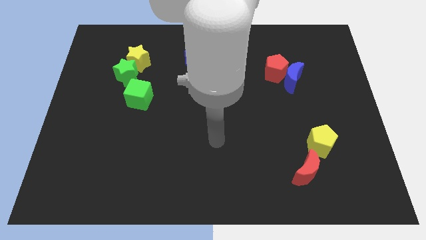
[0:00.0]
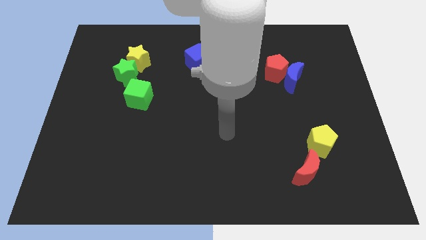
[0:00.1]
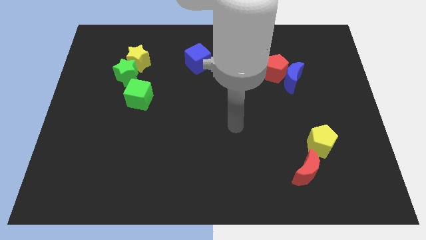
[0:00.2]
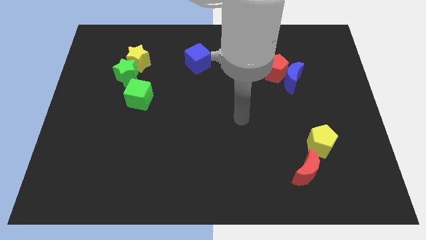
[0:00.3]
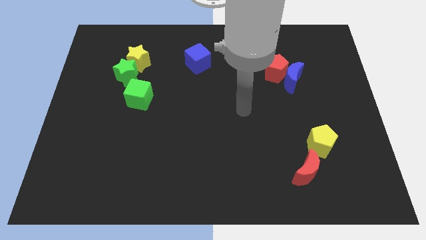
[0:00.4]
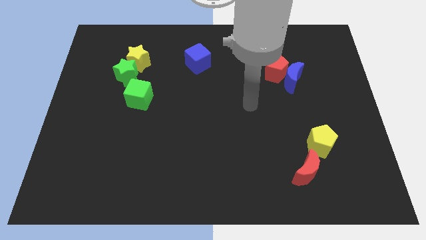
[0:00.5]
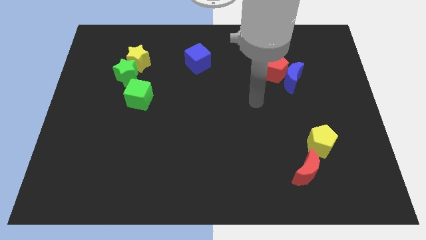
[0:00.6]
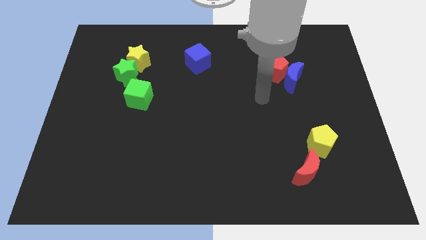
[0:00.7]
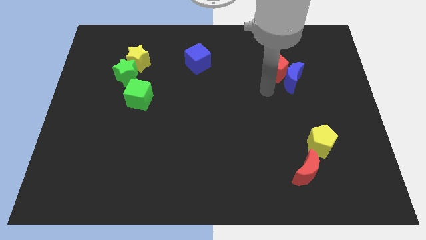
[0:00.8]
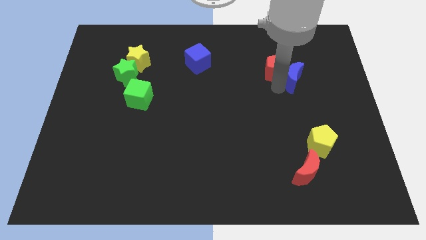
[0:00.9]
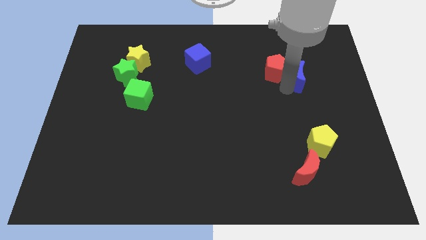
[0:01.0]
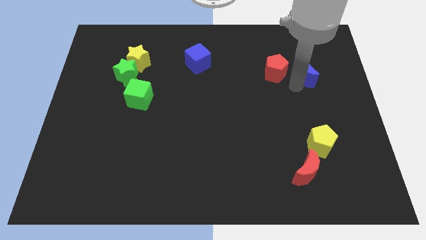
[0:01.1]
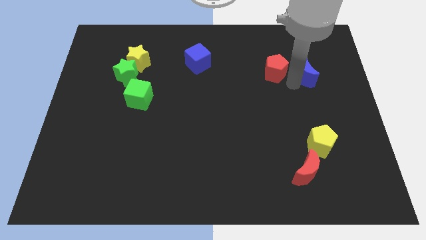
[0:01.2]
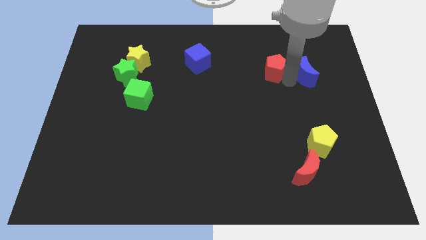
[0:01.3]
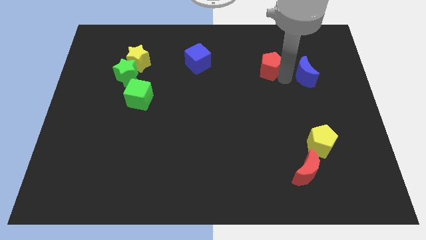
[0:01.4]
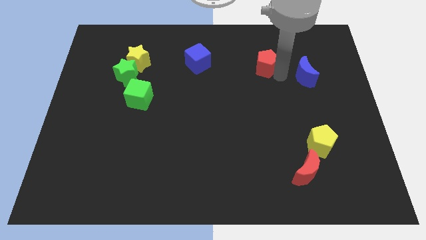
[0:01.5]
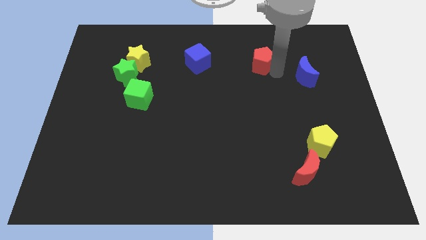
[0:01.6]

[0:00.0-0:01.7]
separate the red pentagon from the blue moon

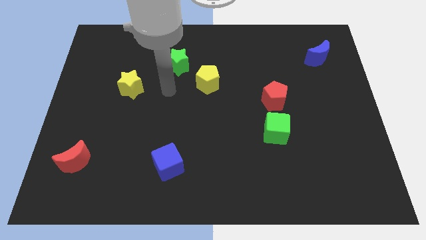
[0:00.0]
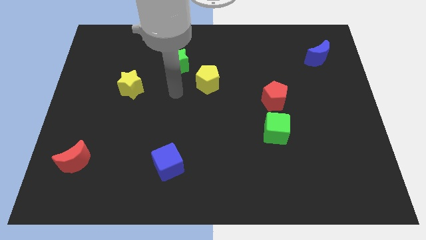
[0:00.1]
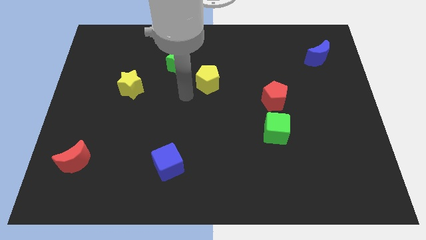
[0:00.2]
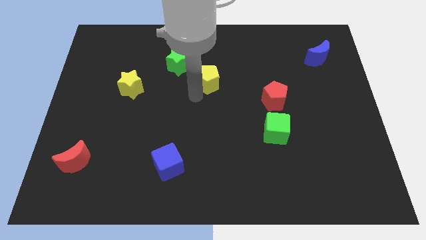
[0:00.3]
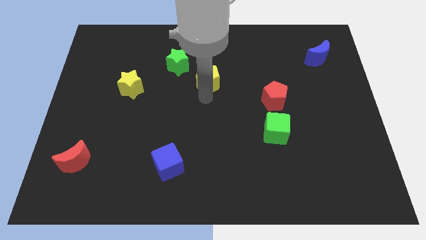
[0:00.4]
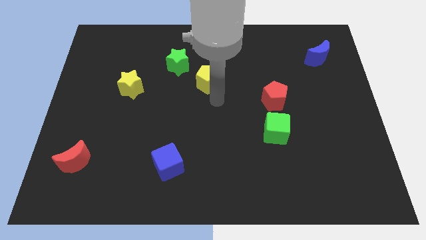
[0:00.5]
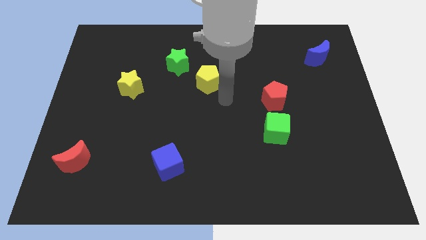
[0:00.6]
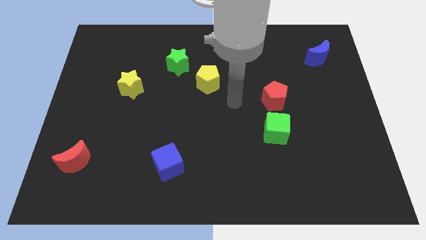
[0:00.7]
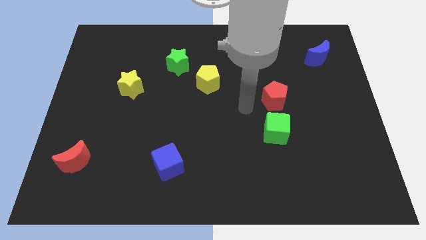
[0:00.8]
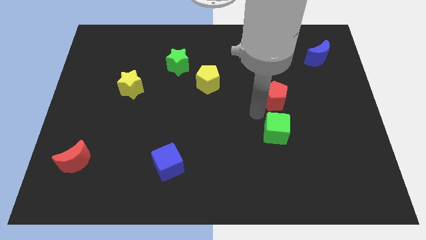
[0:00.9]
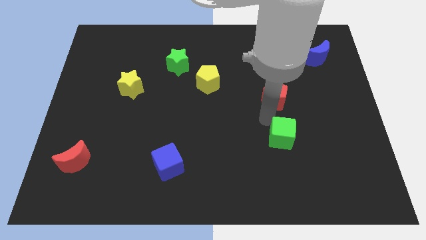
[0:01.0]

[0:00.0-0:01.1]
separate the red pentagon from the green cube

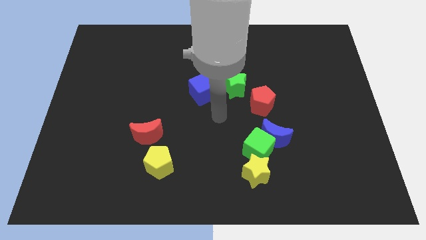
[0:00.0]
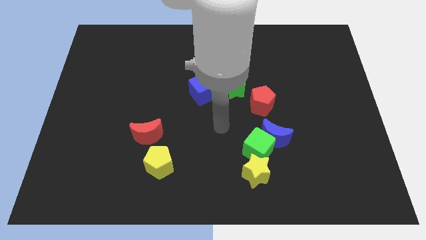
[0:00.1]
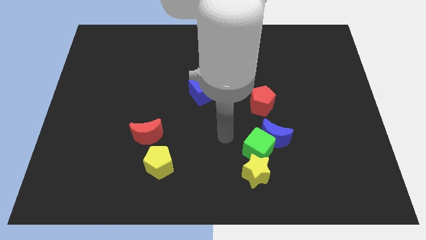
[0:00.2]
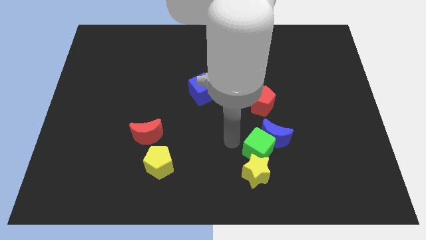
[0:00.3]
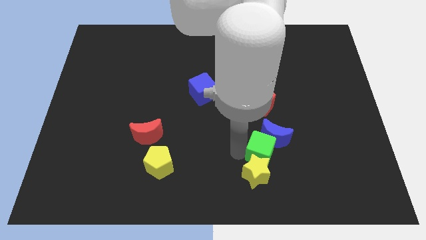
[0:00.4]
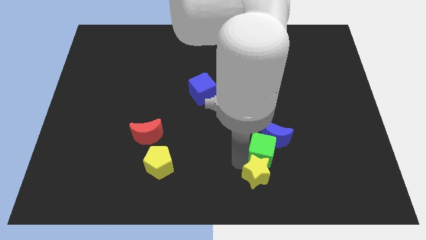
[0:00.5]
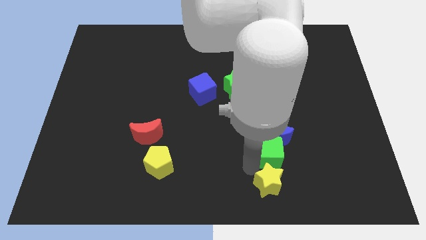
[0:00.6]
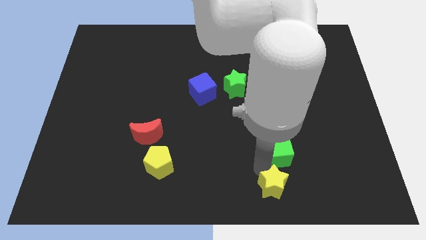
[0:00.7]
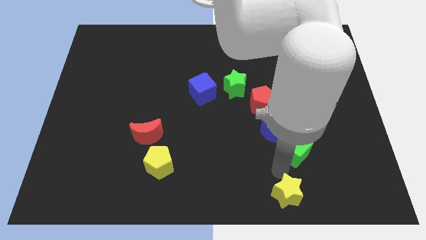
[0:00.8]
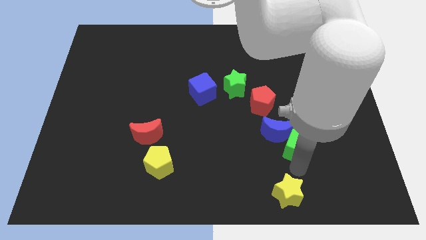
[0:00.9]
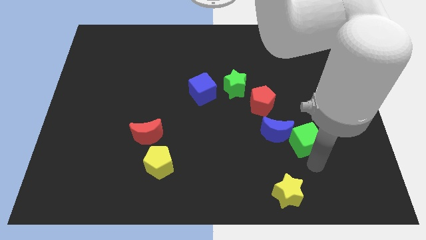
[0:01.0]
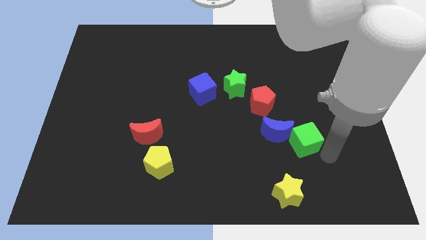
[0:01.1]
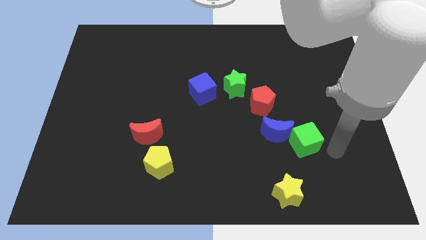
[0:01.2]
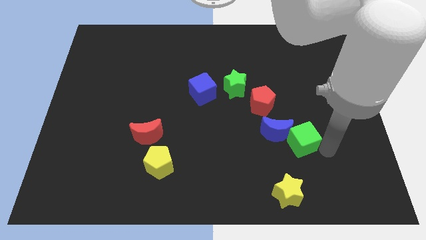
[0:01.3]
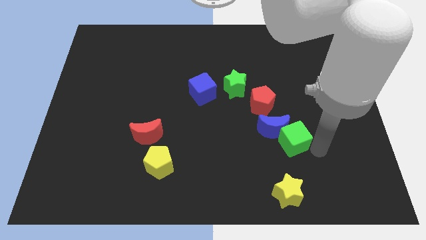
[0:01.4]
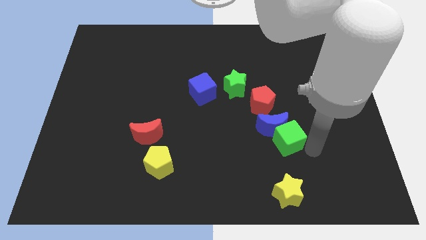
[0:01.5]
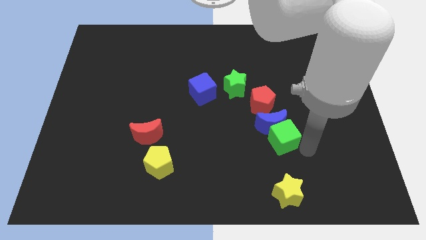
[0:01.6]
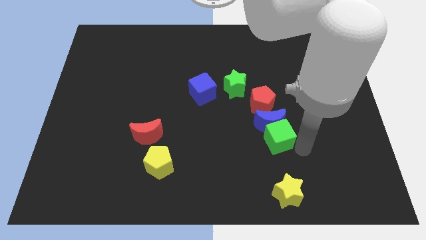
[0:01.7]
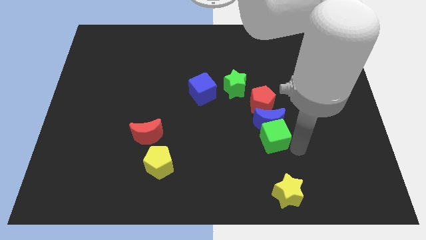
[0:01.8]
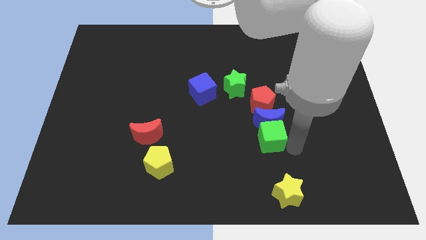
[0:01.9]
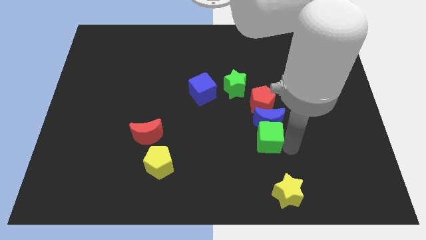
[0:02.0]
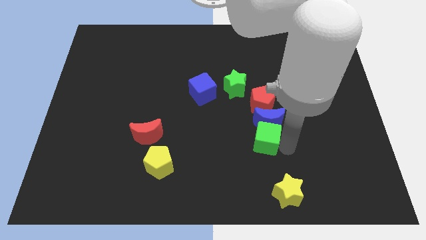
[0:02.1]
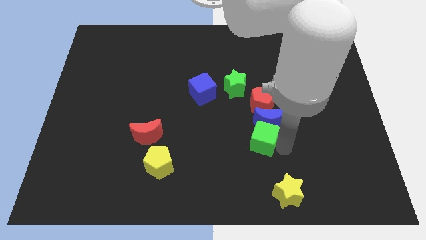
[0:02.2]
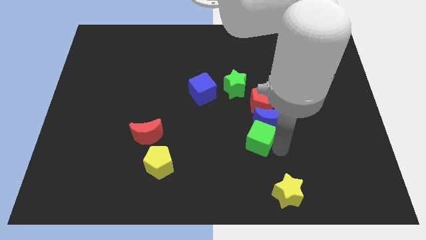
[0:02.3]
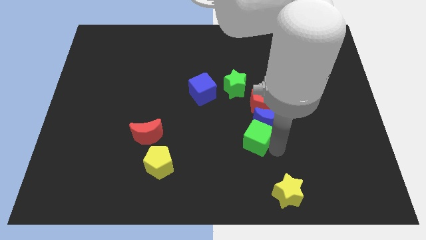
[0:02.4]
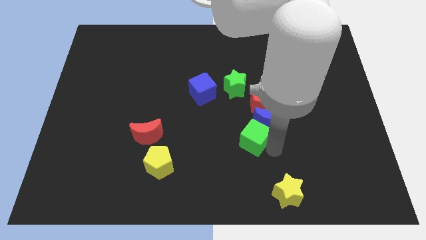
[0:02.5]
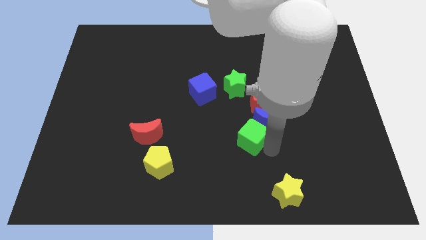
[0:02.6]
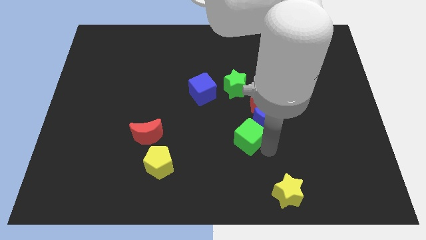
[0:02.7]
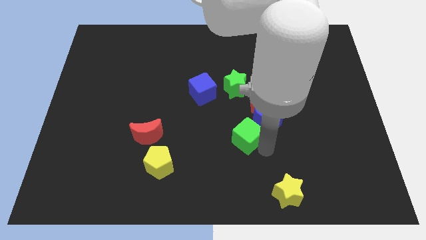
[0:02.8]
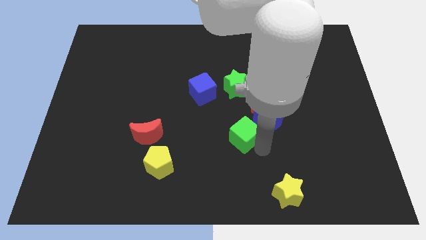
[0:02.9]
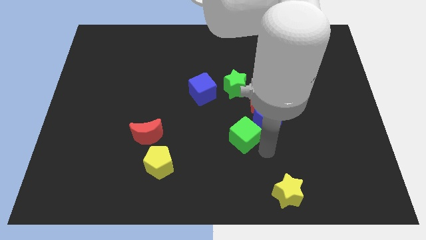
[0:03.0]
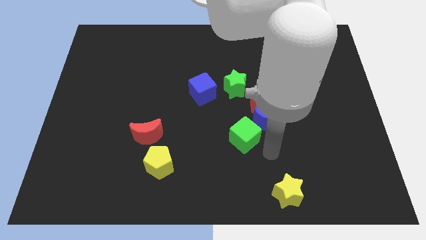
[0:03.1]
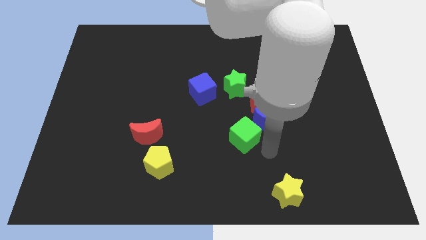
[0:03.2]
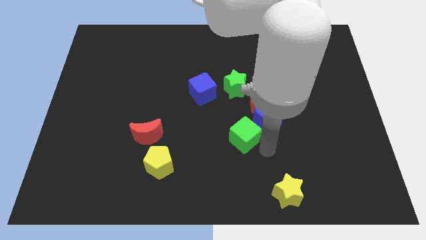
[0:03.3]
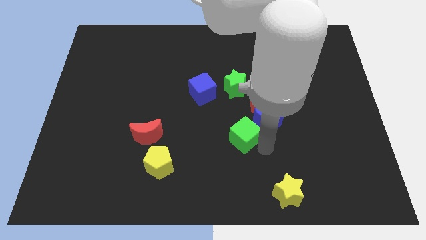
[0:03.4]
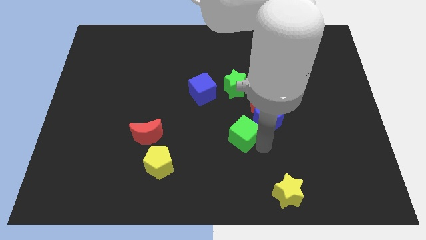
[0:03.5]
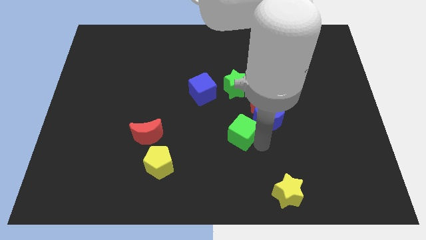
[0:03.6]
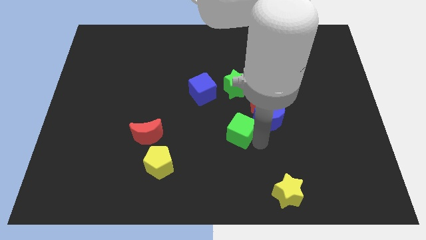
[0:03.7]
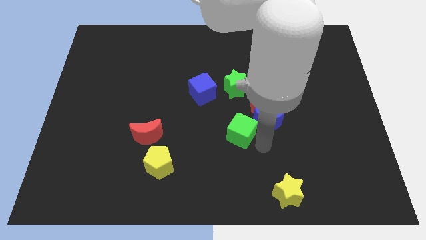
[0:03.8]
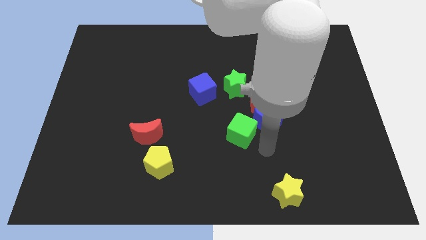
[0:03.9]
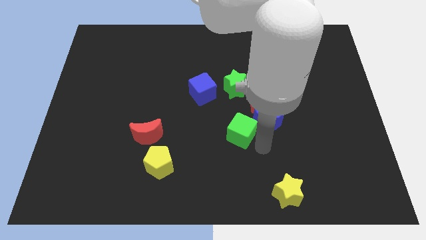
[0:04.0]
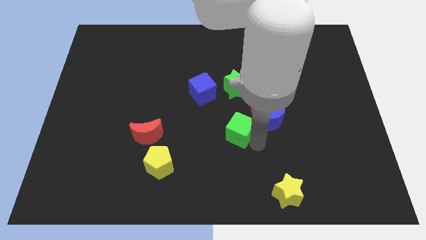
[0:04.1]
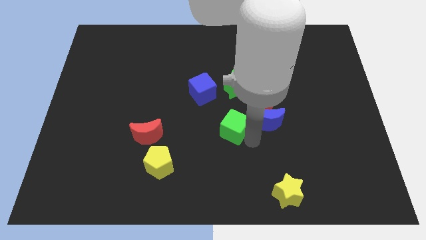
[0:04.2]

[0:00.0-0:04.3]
separate the green cube from the blue moon and yellow star

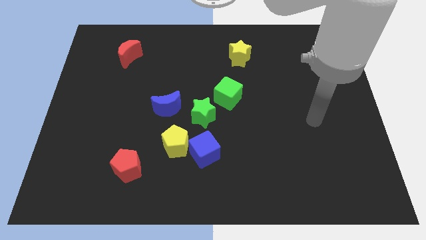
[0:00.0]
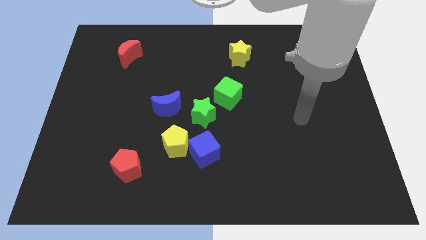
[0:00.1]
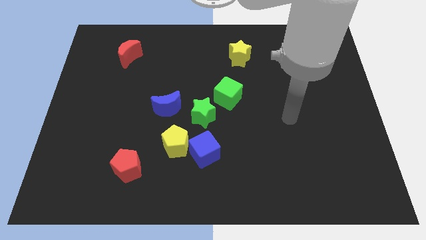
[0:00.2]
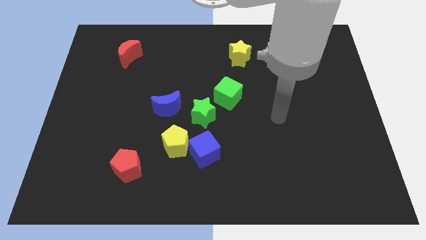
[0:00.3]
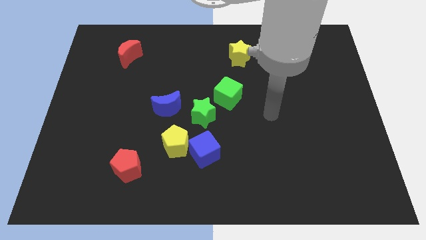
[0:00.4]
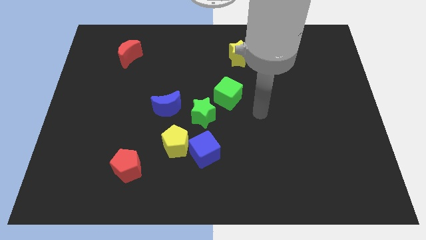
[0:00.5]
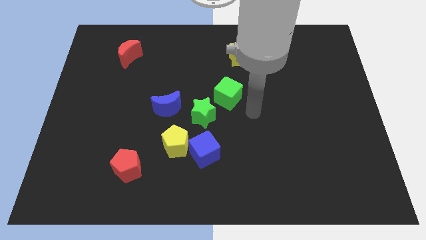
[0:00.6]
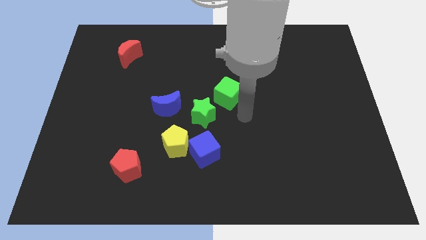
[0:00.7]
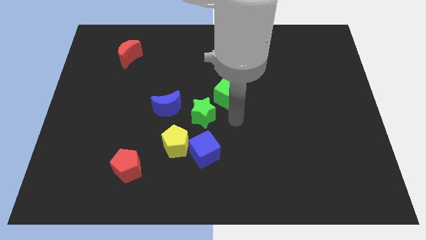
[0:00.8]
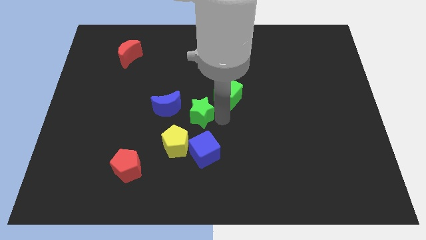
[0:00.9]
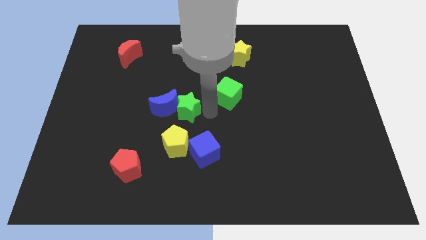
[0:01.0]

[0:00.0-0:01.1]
pull the green cube apart from the green star

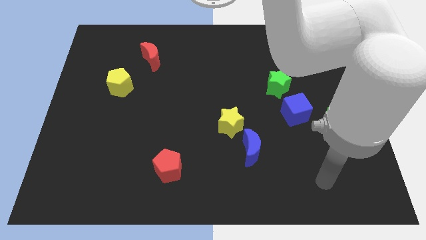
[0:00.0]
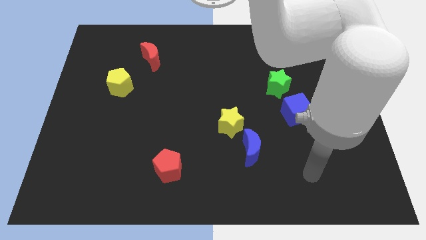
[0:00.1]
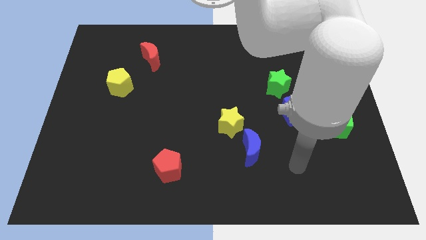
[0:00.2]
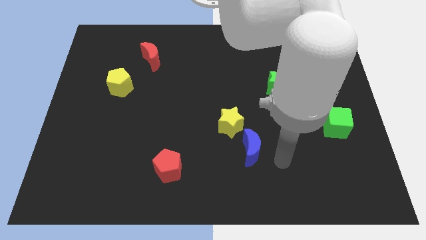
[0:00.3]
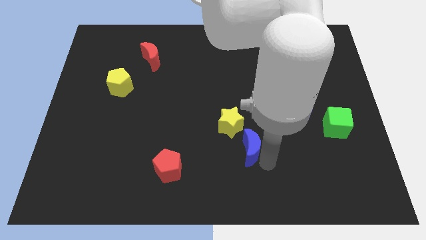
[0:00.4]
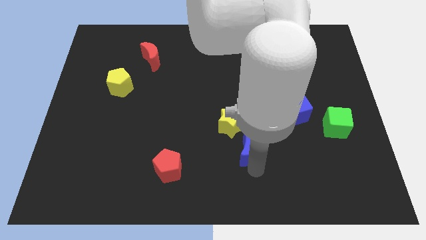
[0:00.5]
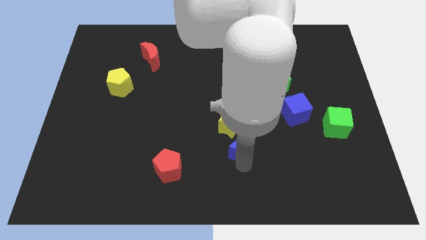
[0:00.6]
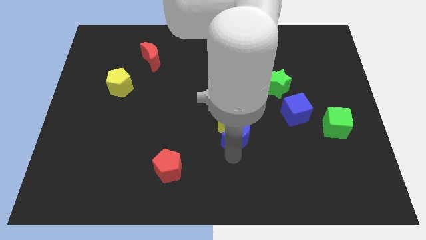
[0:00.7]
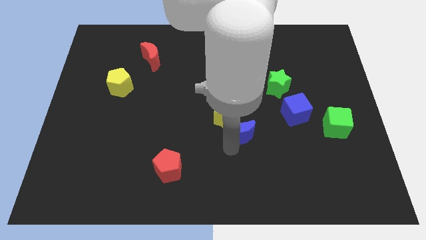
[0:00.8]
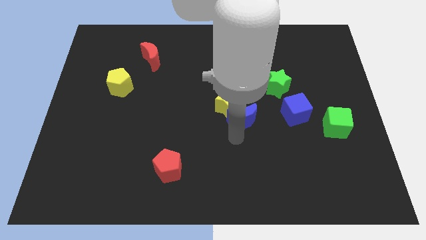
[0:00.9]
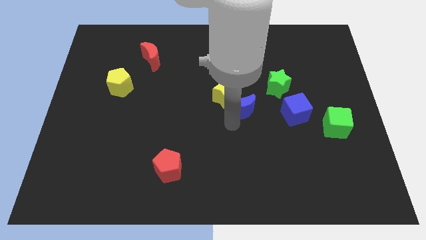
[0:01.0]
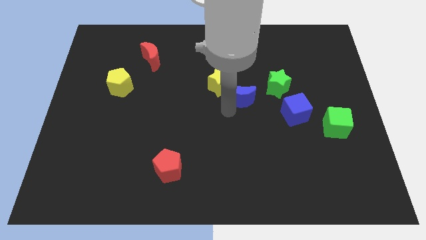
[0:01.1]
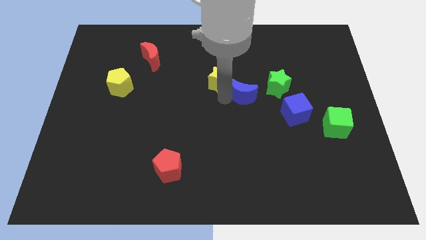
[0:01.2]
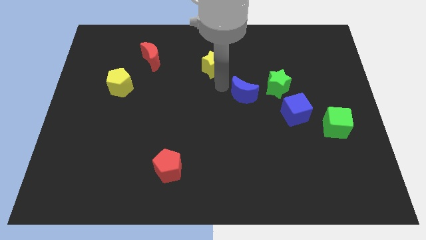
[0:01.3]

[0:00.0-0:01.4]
pull the blue moon apart from the yellow star
